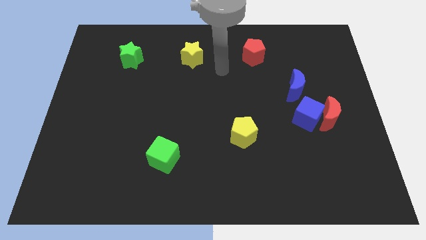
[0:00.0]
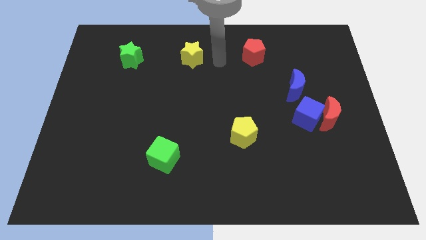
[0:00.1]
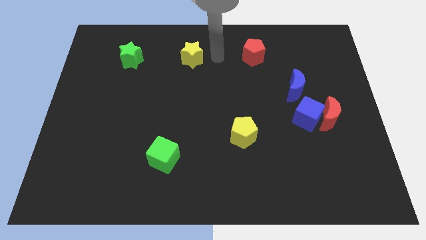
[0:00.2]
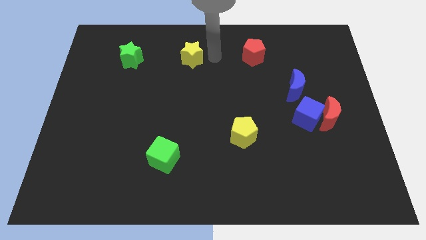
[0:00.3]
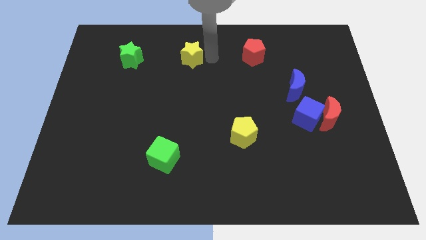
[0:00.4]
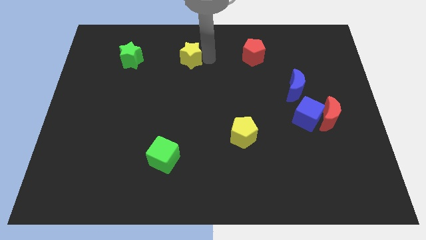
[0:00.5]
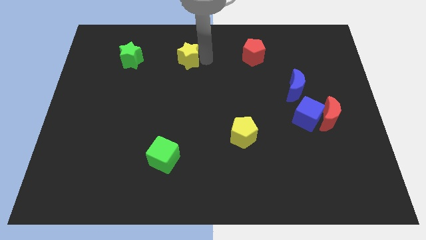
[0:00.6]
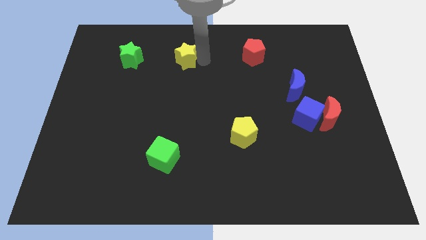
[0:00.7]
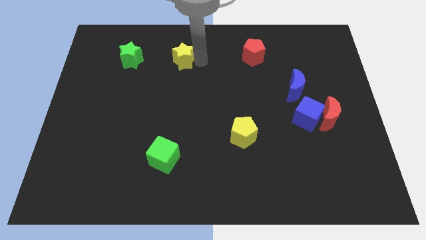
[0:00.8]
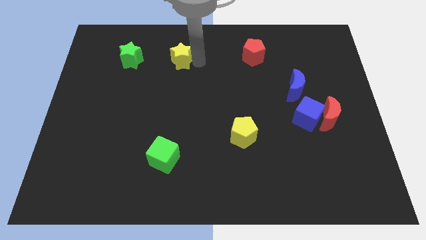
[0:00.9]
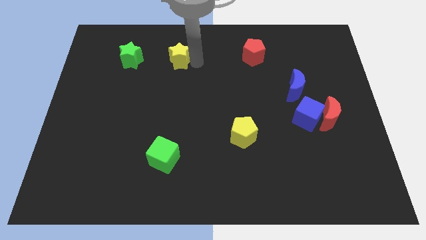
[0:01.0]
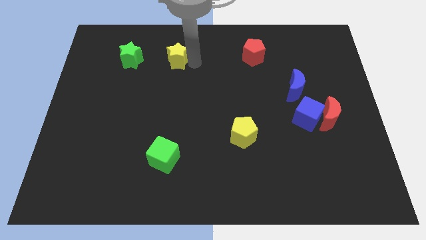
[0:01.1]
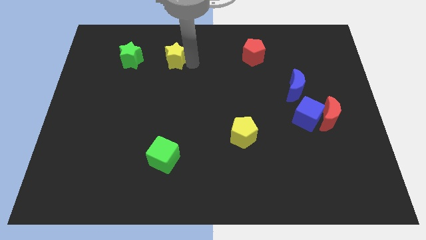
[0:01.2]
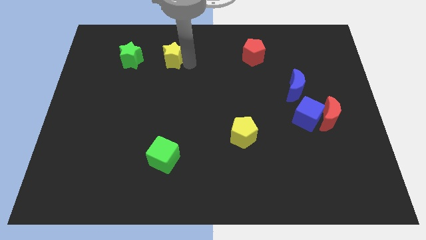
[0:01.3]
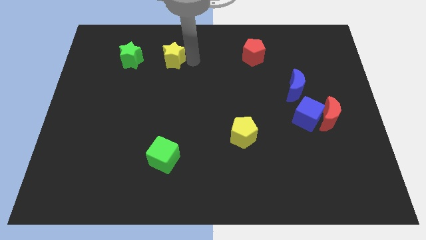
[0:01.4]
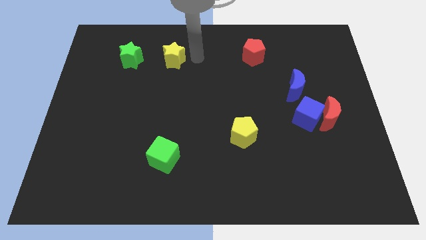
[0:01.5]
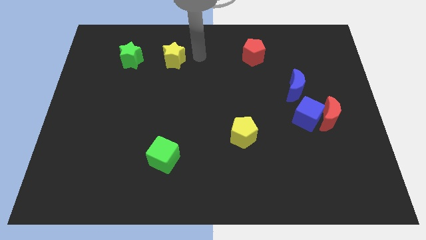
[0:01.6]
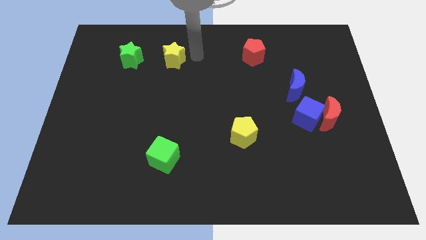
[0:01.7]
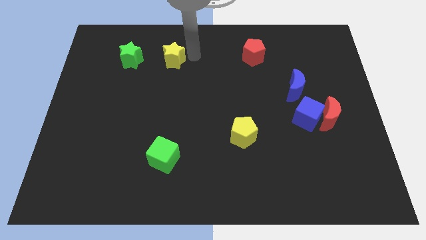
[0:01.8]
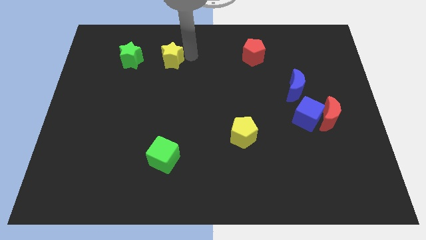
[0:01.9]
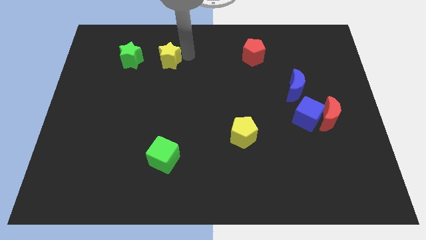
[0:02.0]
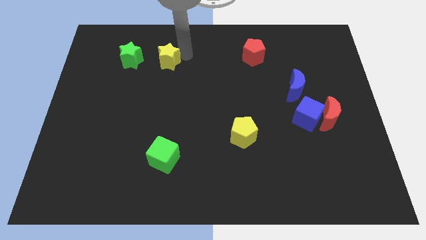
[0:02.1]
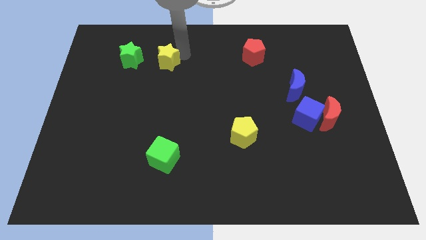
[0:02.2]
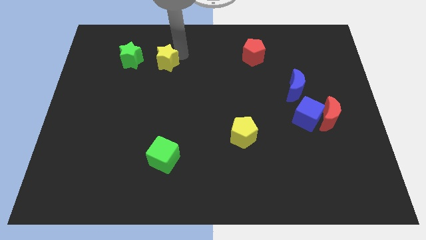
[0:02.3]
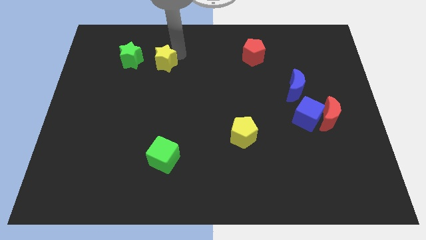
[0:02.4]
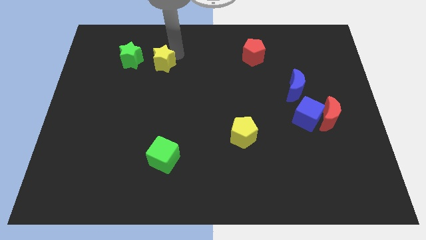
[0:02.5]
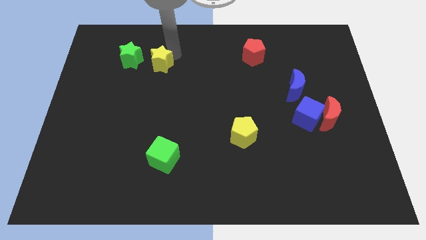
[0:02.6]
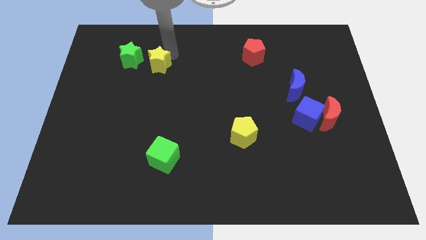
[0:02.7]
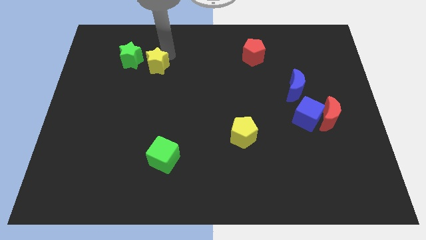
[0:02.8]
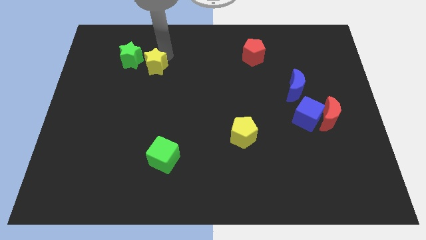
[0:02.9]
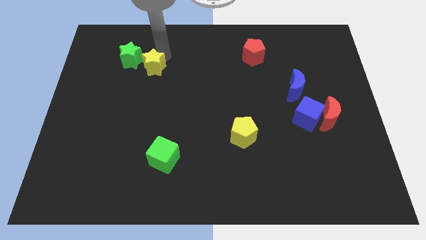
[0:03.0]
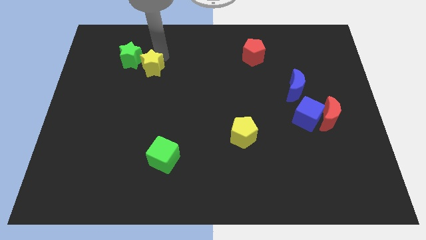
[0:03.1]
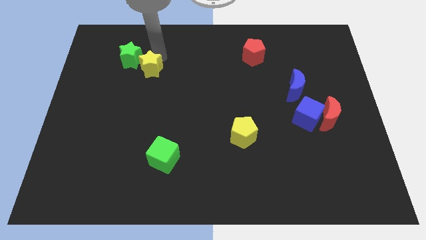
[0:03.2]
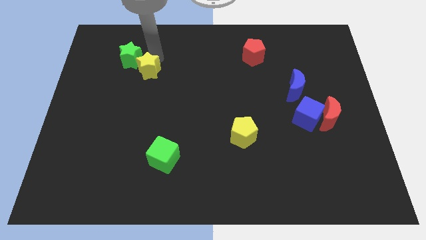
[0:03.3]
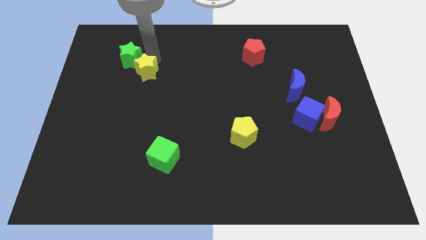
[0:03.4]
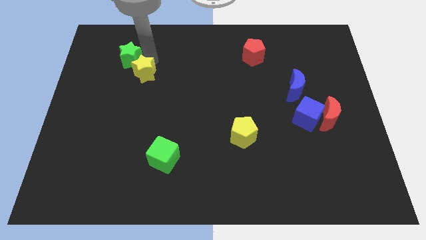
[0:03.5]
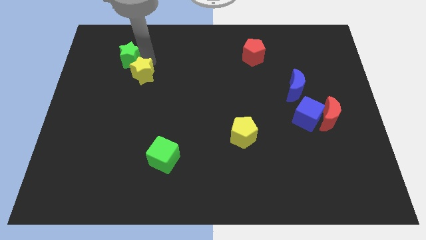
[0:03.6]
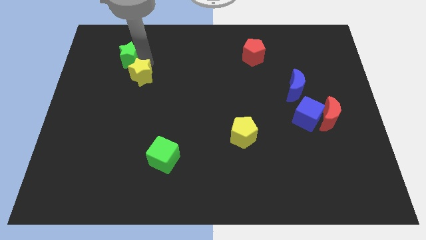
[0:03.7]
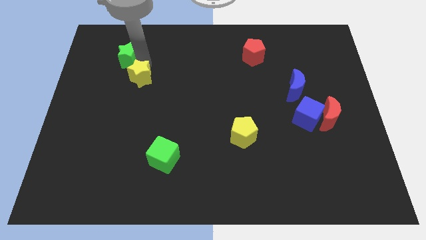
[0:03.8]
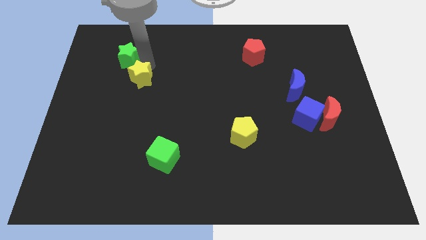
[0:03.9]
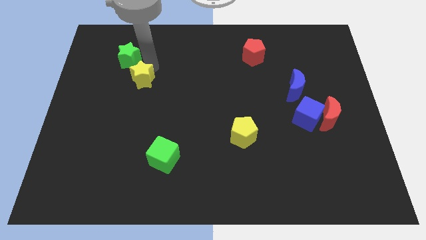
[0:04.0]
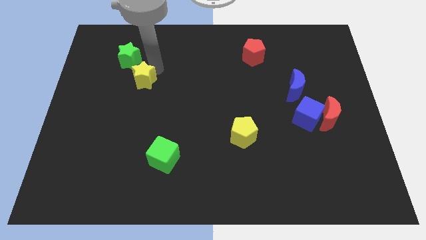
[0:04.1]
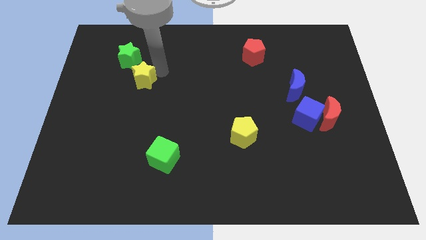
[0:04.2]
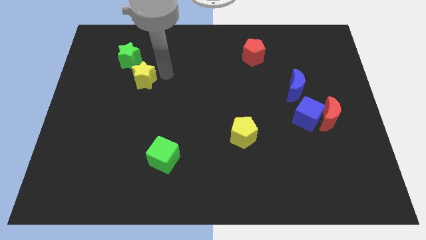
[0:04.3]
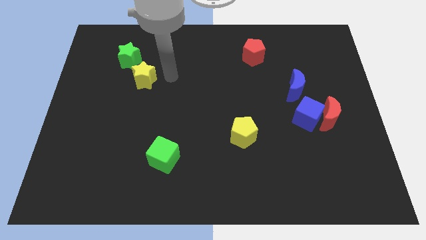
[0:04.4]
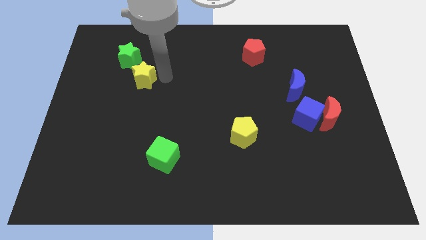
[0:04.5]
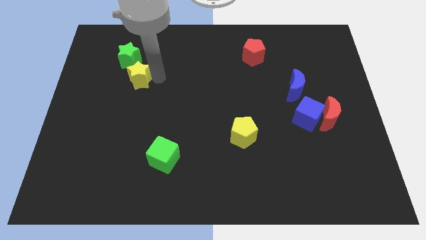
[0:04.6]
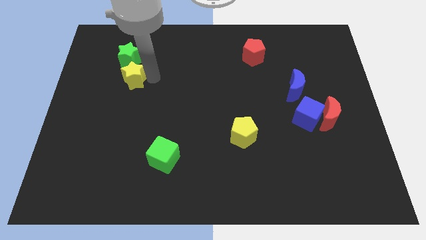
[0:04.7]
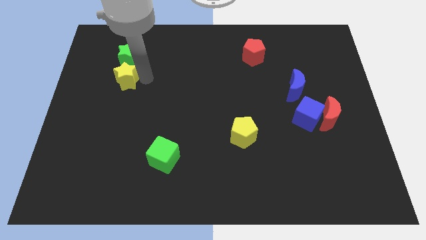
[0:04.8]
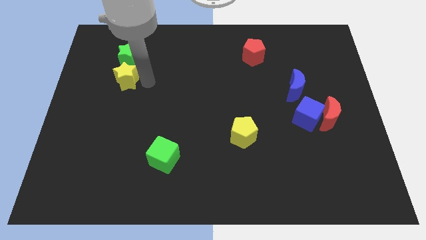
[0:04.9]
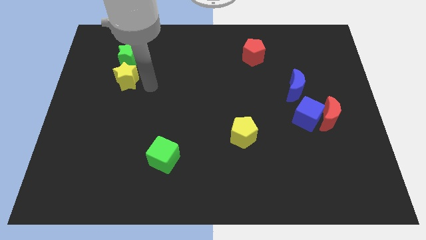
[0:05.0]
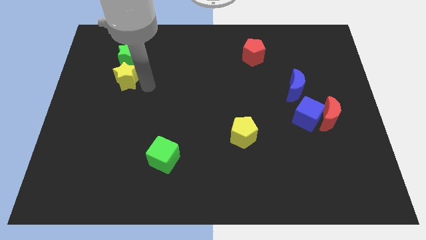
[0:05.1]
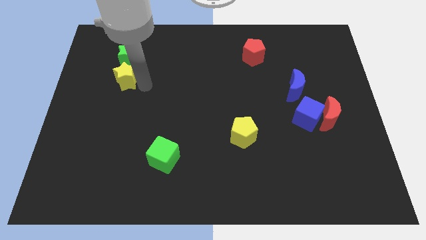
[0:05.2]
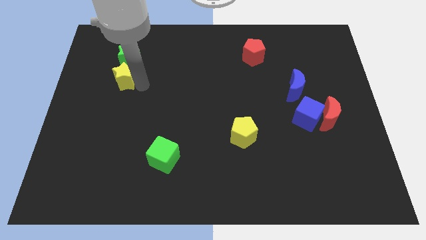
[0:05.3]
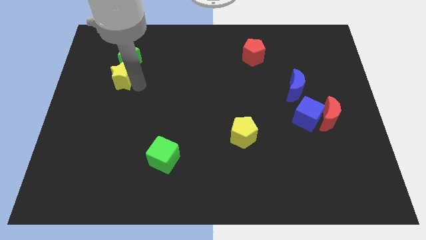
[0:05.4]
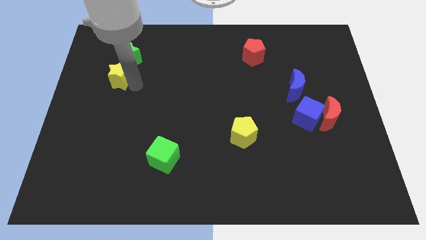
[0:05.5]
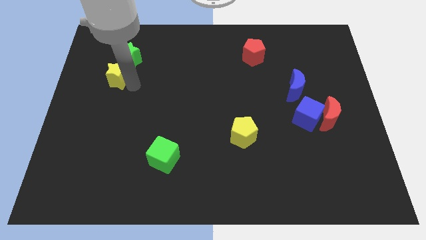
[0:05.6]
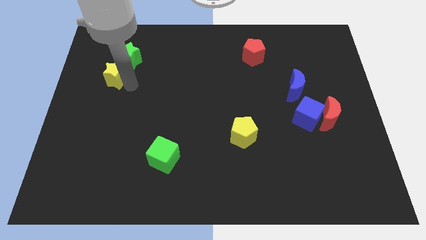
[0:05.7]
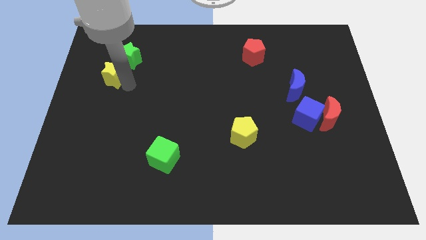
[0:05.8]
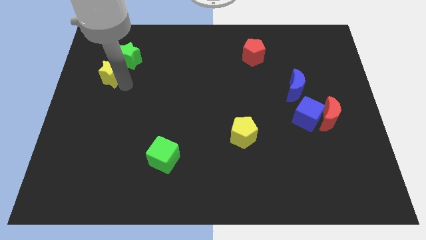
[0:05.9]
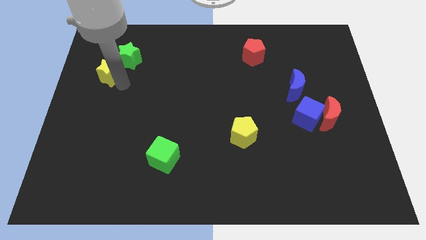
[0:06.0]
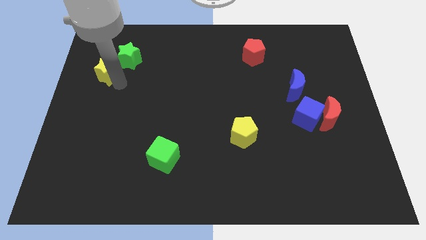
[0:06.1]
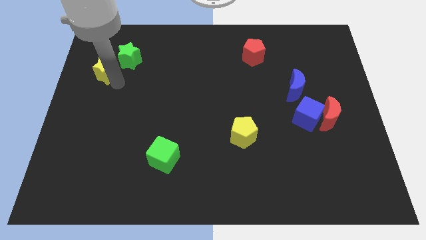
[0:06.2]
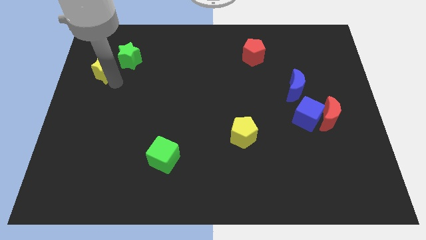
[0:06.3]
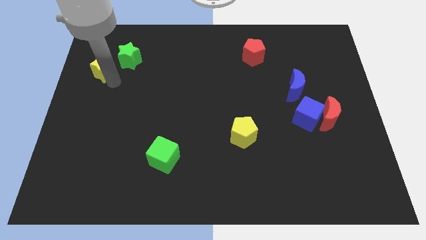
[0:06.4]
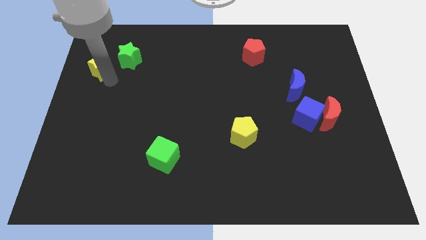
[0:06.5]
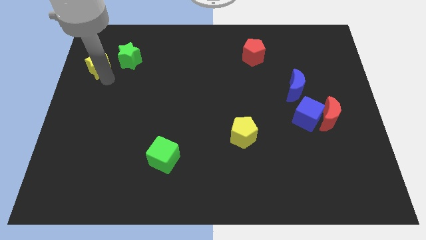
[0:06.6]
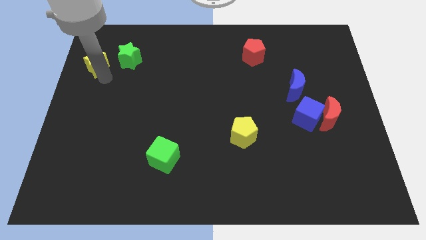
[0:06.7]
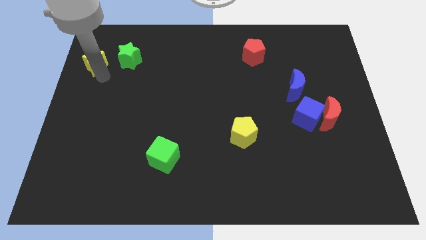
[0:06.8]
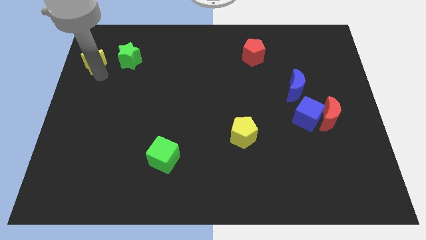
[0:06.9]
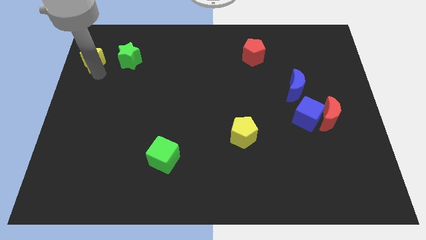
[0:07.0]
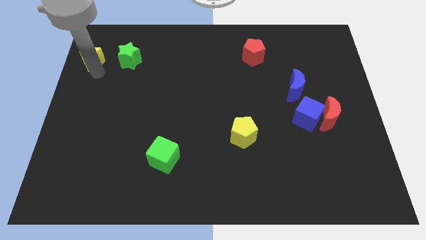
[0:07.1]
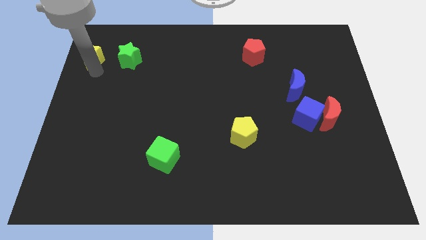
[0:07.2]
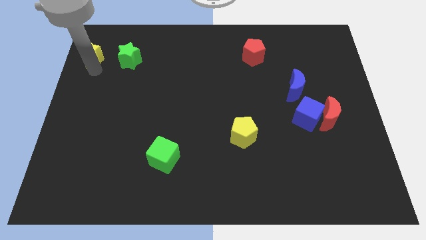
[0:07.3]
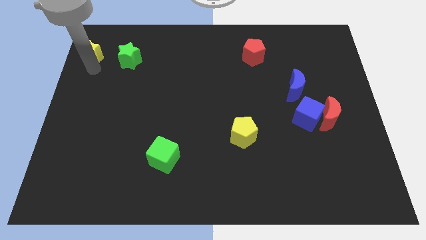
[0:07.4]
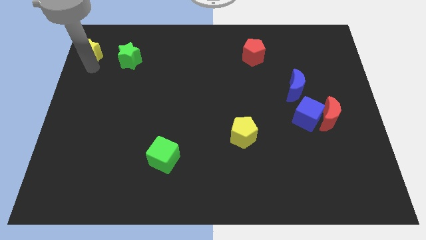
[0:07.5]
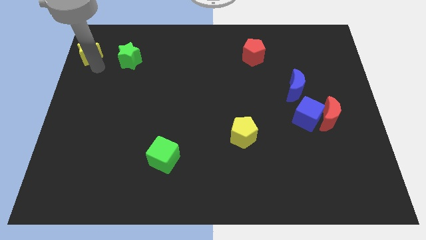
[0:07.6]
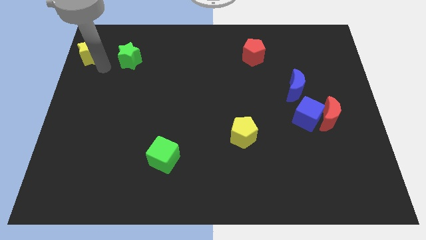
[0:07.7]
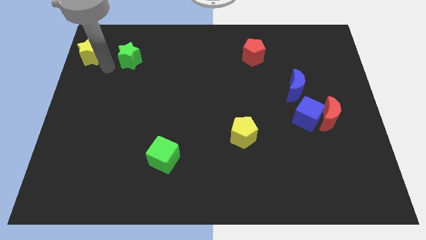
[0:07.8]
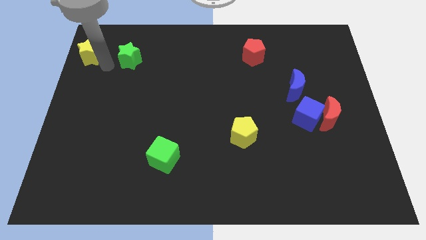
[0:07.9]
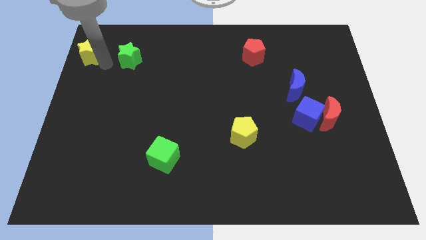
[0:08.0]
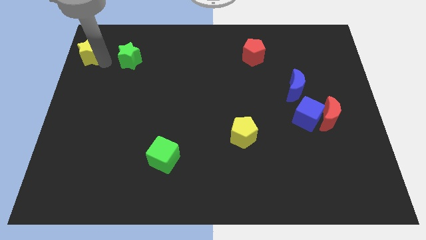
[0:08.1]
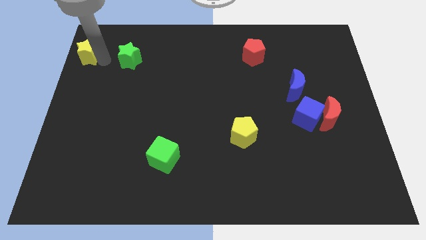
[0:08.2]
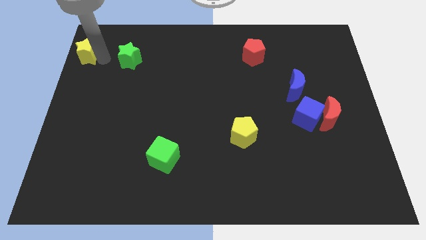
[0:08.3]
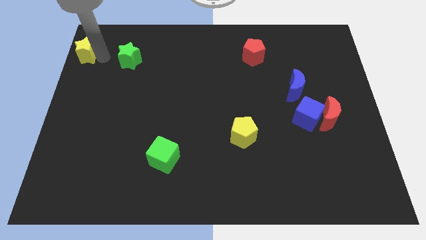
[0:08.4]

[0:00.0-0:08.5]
put the yellow star to the upper left corner
